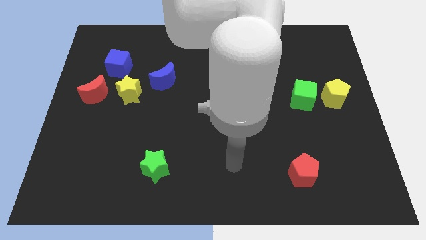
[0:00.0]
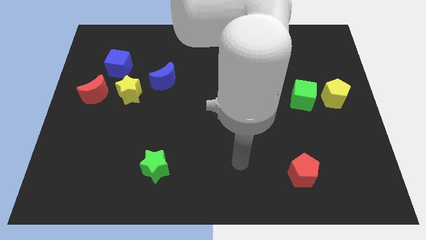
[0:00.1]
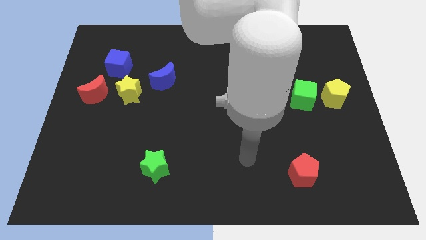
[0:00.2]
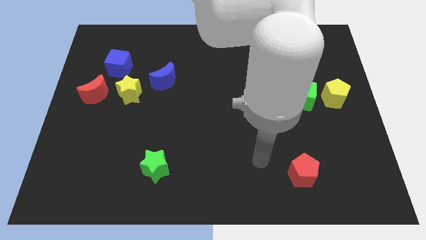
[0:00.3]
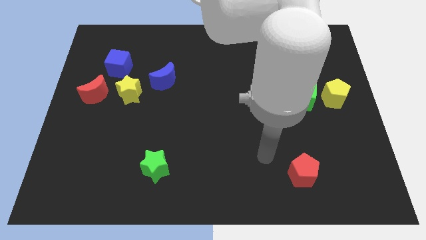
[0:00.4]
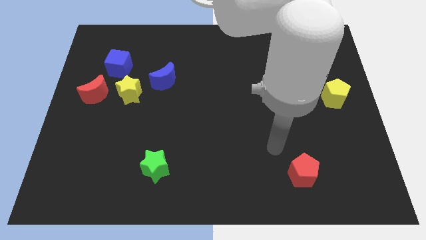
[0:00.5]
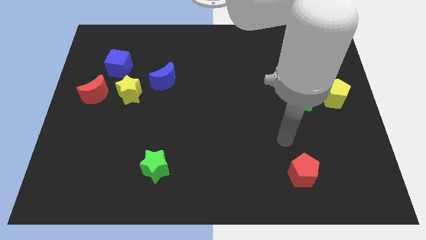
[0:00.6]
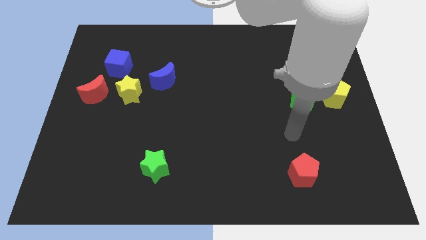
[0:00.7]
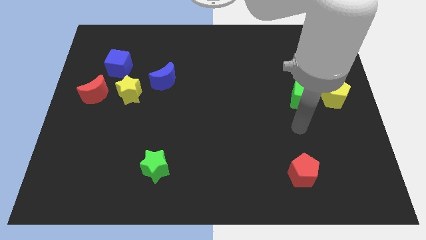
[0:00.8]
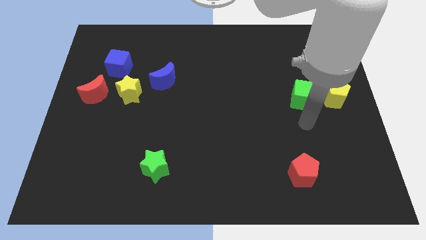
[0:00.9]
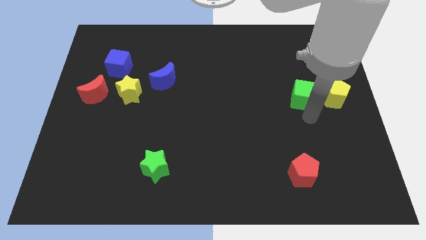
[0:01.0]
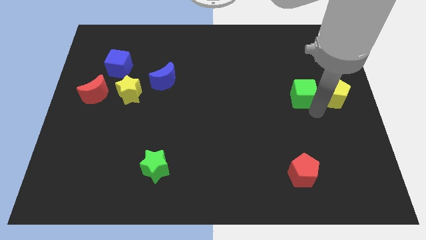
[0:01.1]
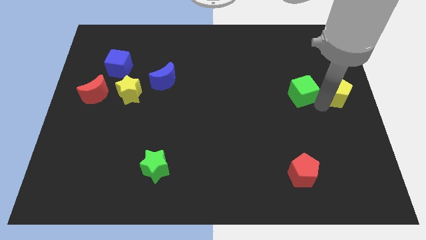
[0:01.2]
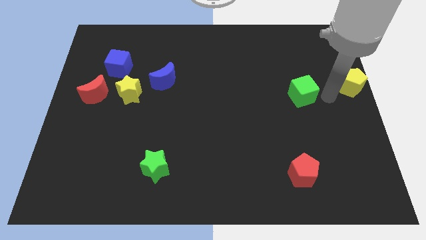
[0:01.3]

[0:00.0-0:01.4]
pull the green cube apart from the yellow pentagon

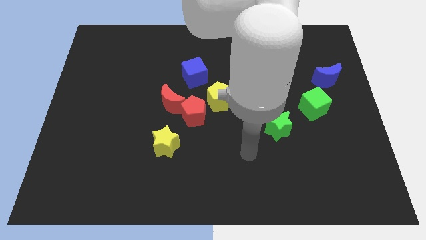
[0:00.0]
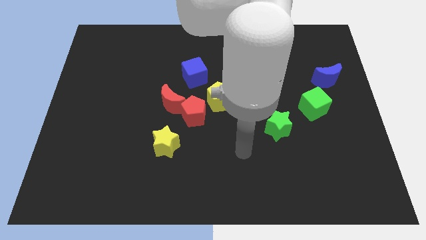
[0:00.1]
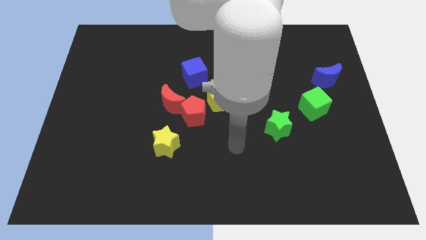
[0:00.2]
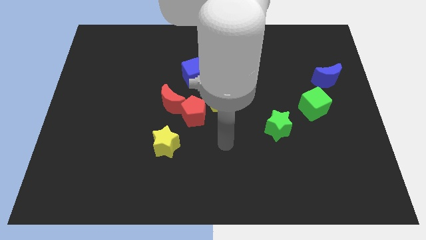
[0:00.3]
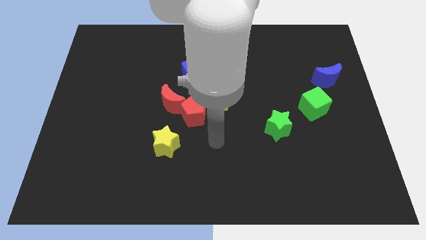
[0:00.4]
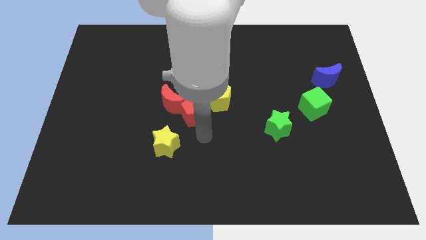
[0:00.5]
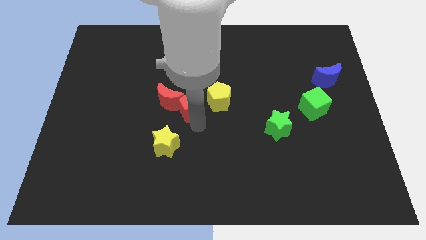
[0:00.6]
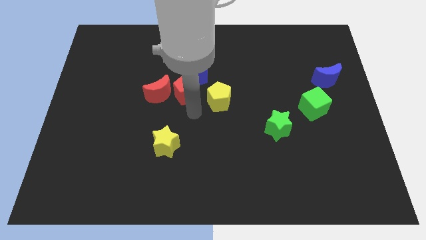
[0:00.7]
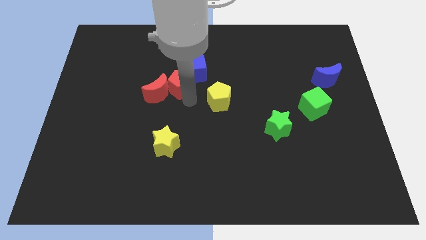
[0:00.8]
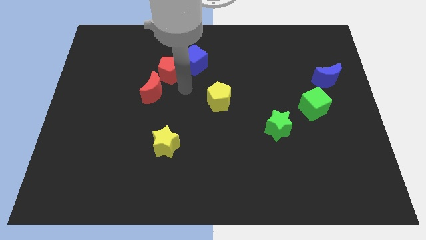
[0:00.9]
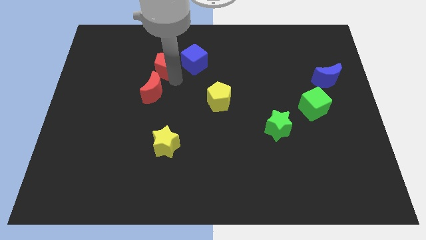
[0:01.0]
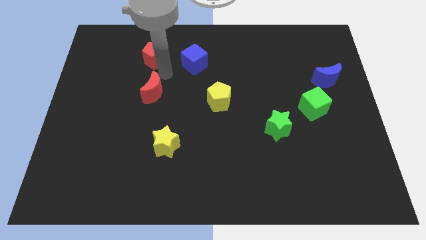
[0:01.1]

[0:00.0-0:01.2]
move the red moon away from the red pentagon

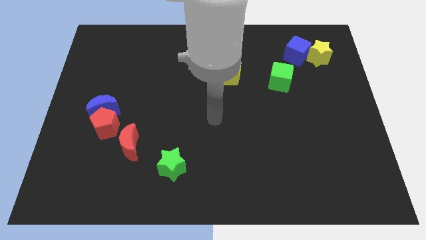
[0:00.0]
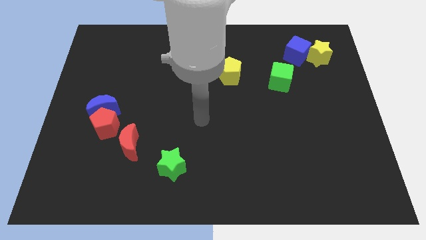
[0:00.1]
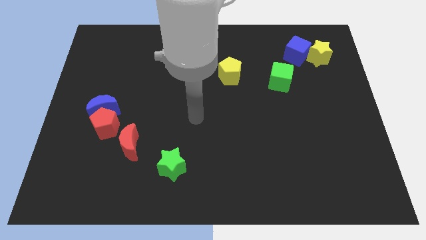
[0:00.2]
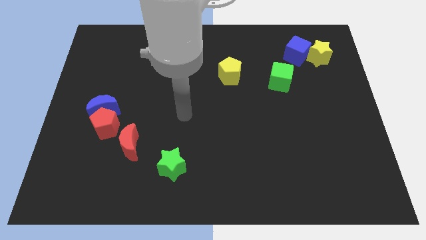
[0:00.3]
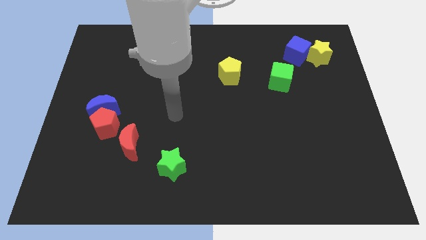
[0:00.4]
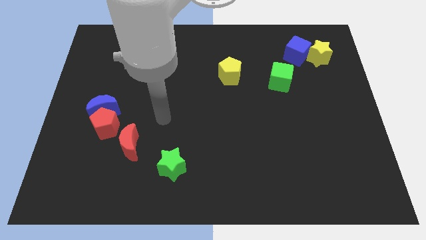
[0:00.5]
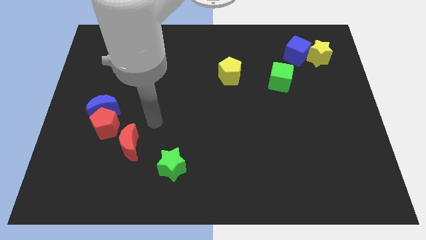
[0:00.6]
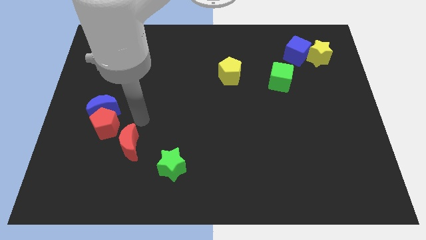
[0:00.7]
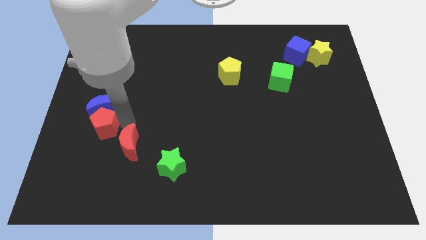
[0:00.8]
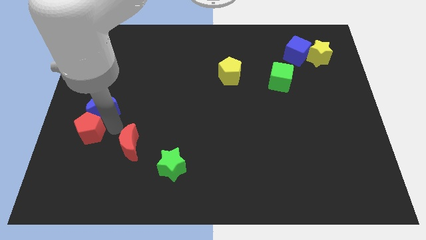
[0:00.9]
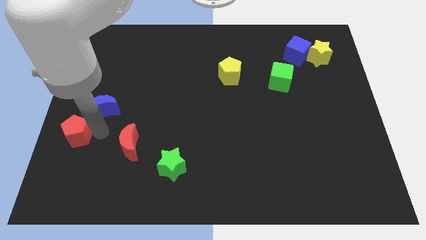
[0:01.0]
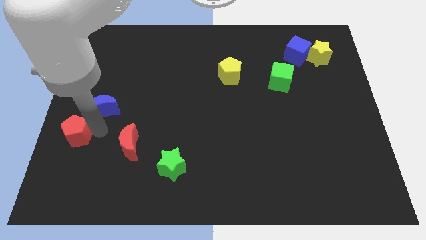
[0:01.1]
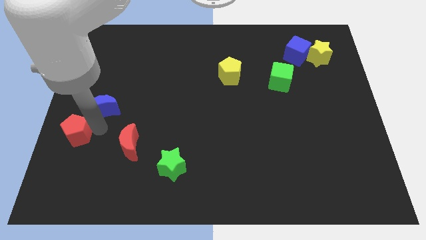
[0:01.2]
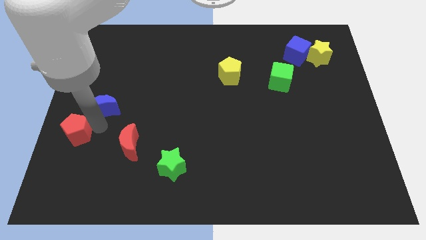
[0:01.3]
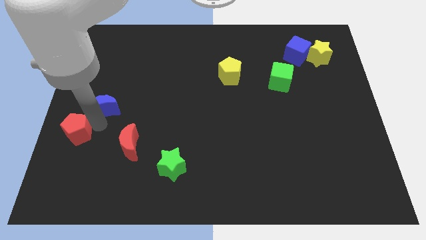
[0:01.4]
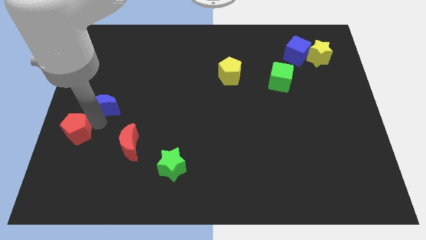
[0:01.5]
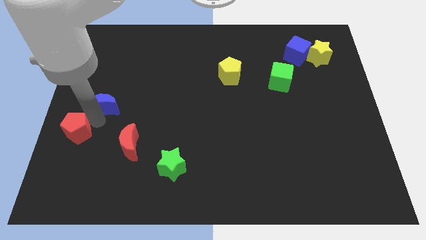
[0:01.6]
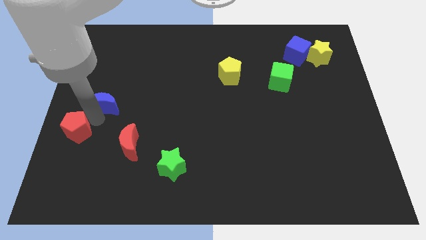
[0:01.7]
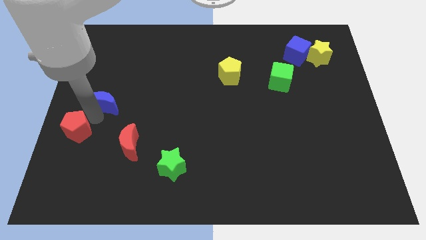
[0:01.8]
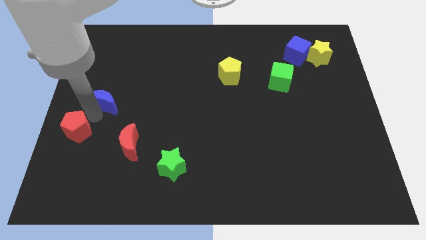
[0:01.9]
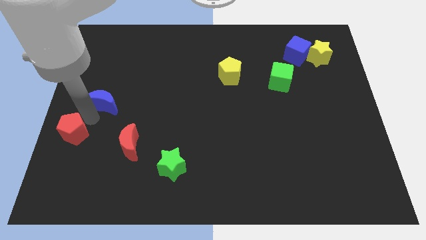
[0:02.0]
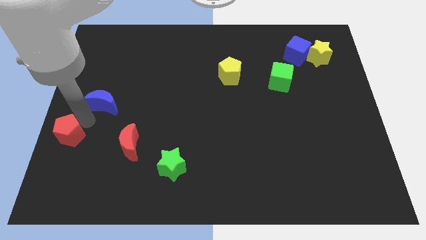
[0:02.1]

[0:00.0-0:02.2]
separate the blue moon from the red pentagon

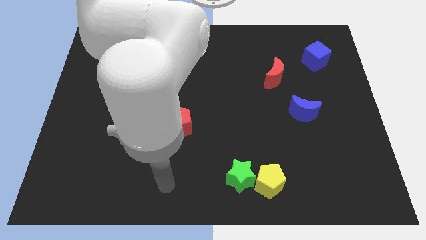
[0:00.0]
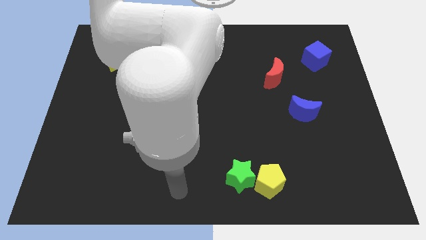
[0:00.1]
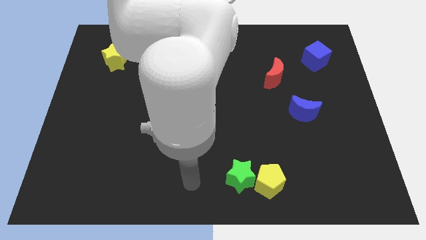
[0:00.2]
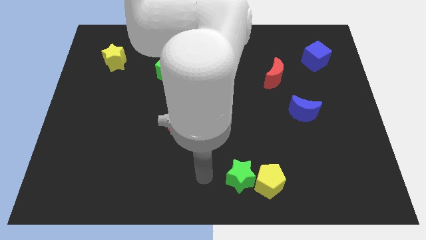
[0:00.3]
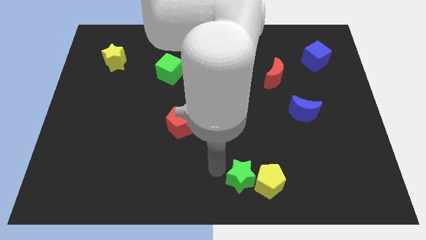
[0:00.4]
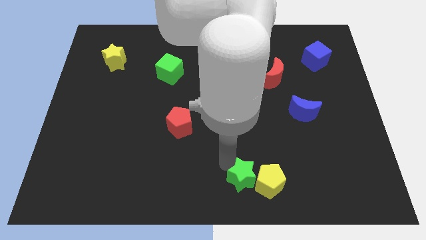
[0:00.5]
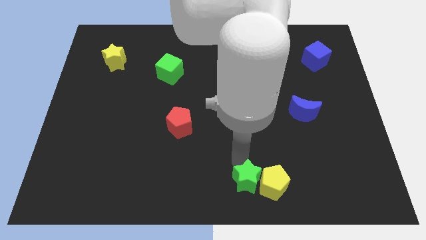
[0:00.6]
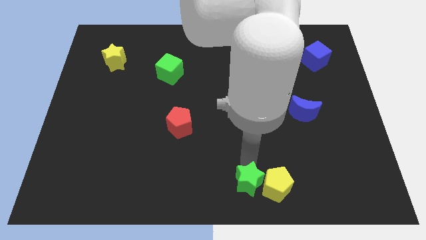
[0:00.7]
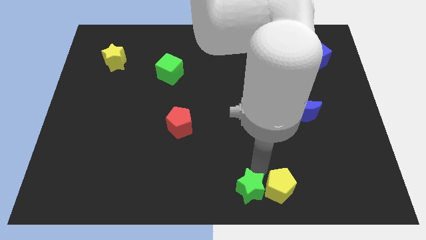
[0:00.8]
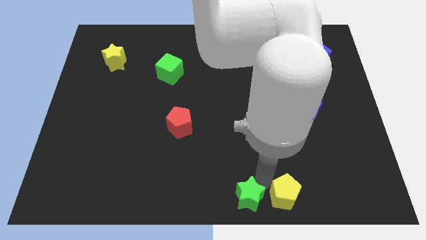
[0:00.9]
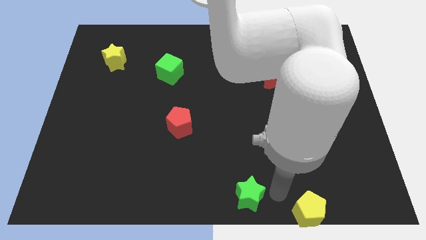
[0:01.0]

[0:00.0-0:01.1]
pull the green star apart from the yellow pentagon

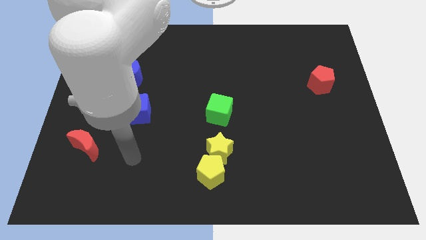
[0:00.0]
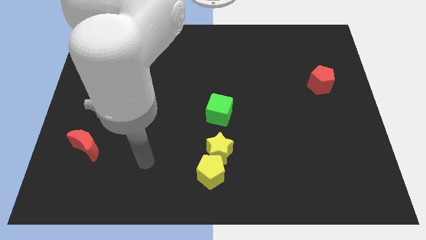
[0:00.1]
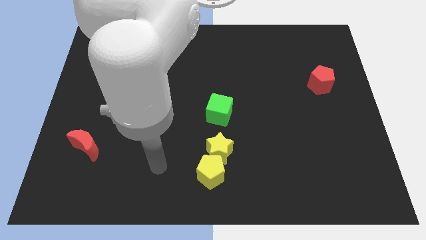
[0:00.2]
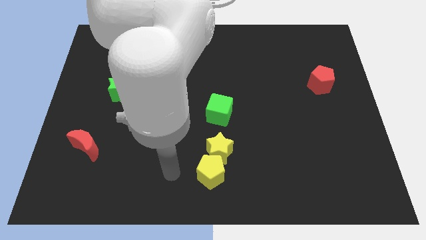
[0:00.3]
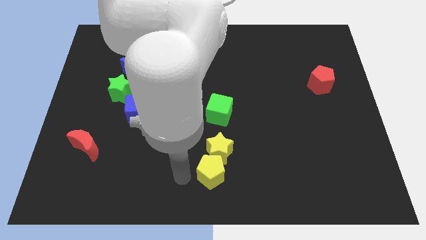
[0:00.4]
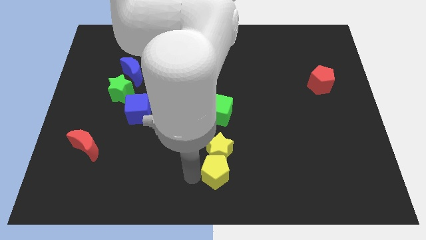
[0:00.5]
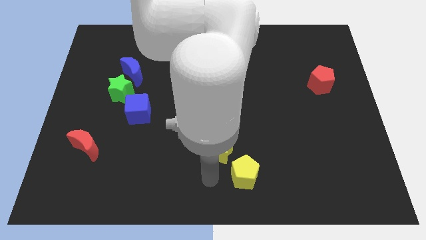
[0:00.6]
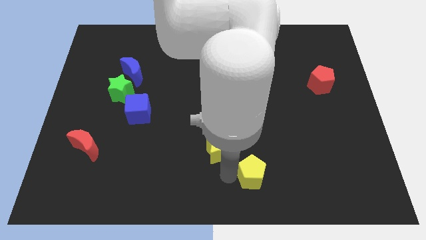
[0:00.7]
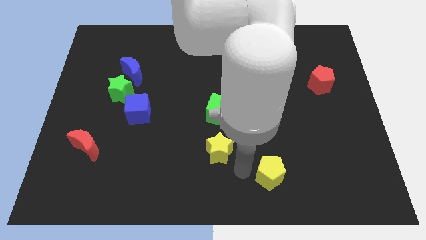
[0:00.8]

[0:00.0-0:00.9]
move the yellow star away from the yellow pentagon

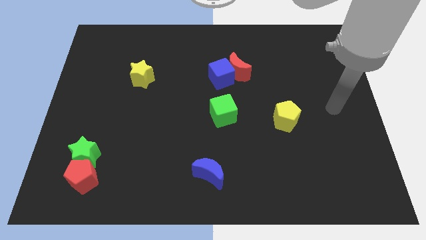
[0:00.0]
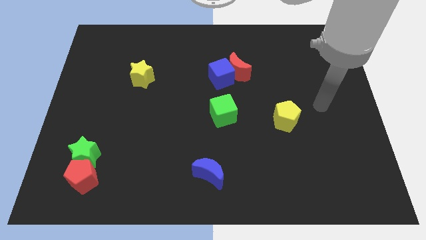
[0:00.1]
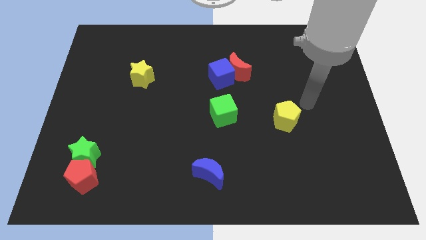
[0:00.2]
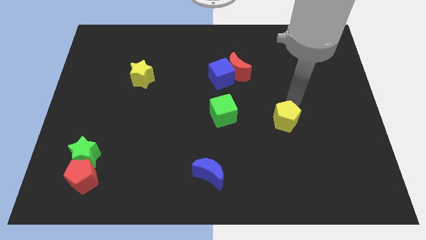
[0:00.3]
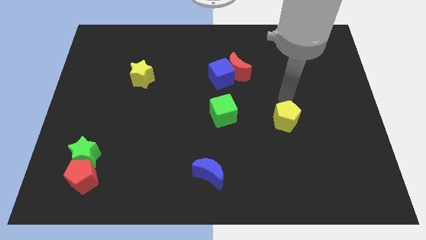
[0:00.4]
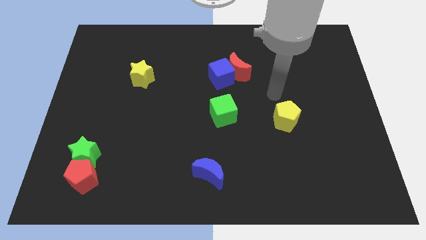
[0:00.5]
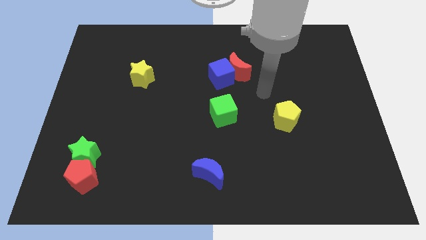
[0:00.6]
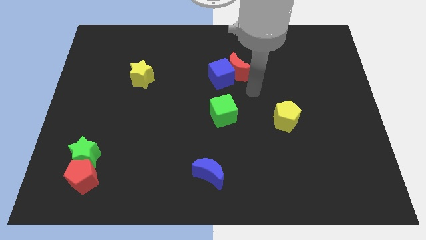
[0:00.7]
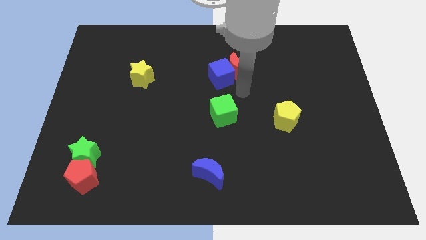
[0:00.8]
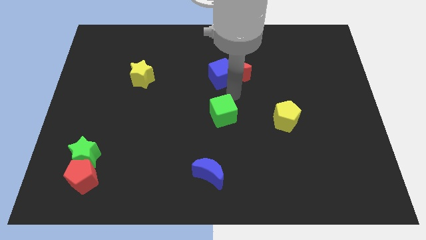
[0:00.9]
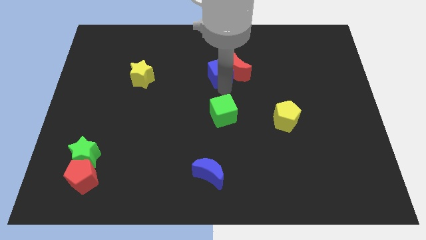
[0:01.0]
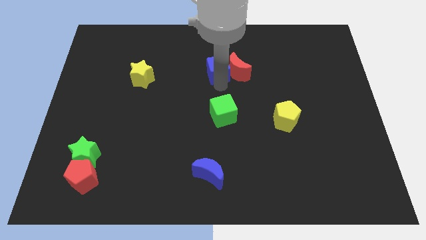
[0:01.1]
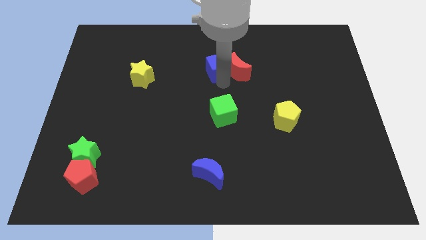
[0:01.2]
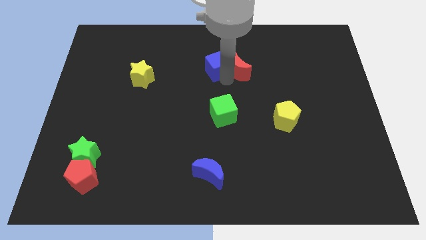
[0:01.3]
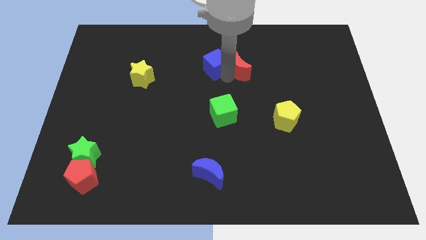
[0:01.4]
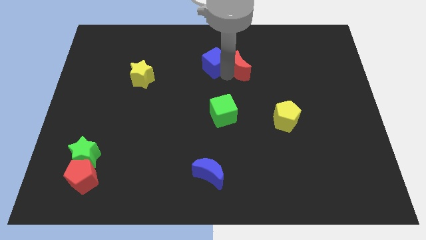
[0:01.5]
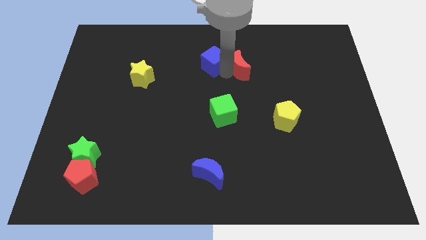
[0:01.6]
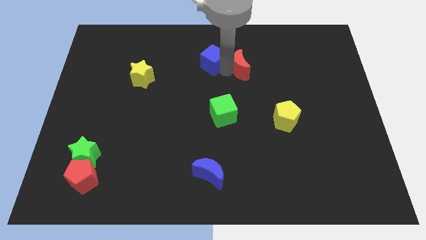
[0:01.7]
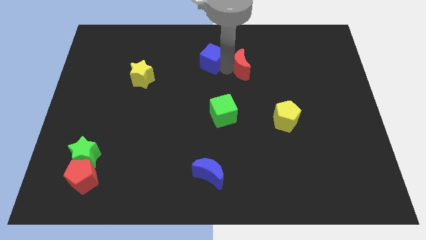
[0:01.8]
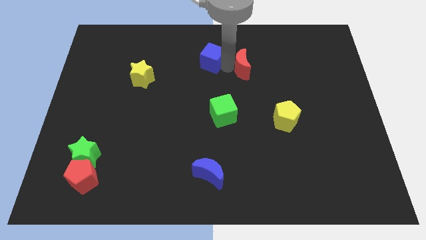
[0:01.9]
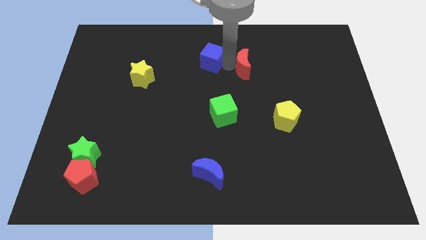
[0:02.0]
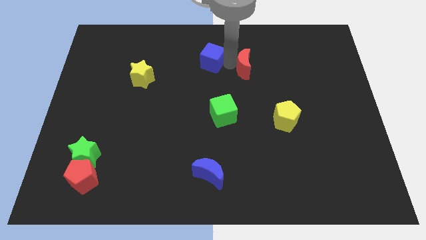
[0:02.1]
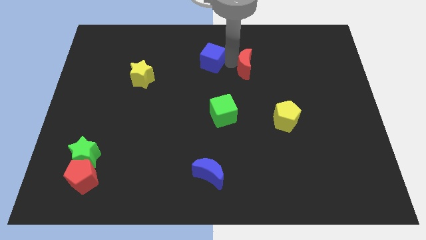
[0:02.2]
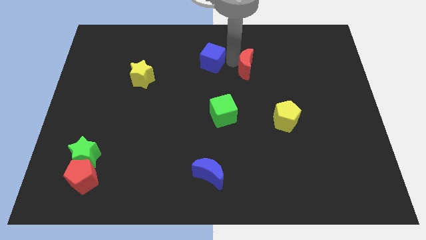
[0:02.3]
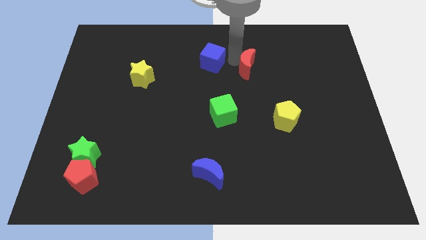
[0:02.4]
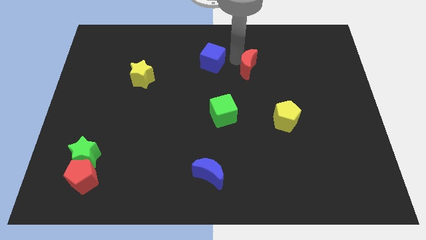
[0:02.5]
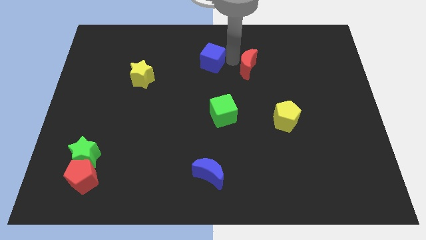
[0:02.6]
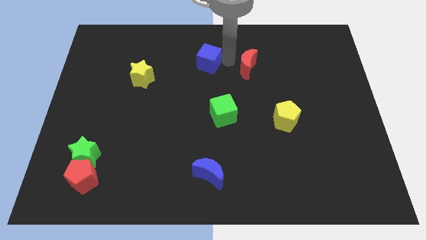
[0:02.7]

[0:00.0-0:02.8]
separate the red moon from the blue cube
